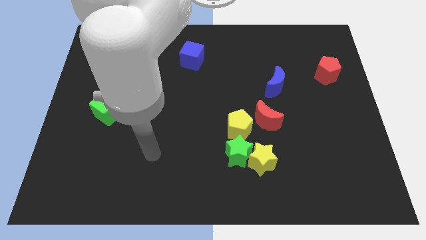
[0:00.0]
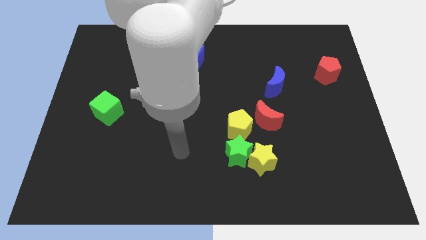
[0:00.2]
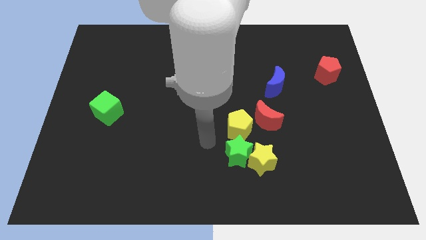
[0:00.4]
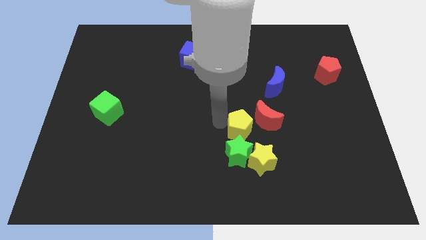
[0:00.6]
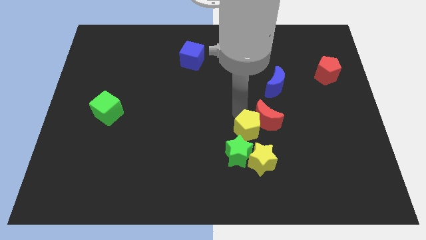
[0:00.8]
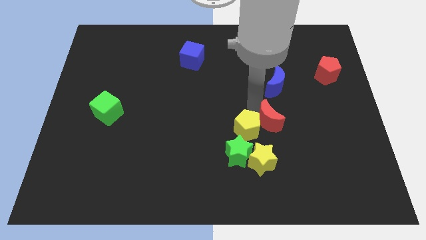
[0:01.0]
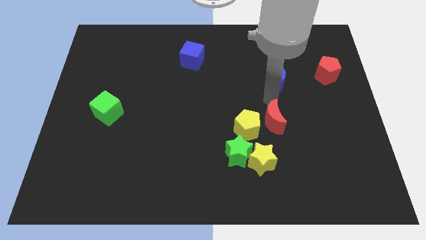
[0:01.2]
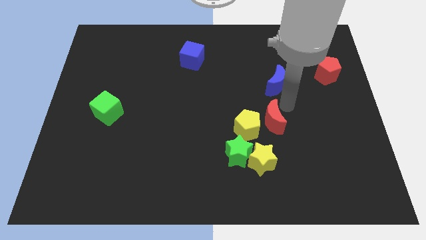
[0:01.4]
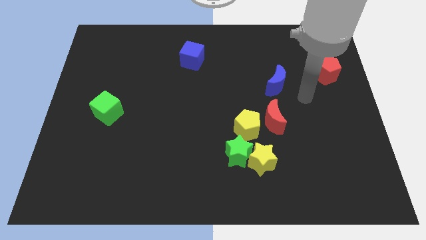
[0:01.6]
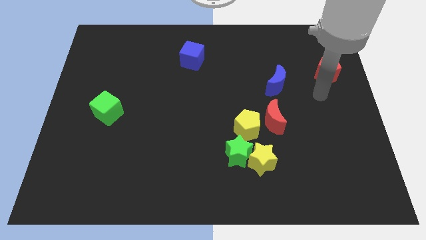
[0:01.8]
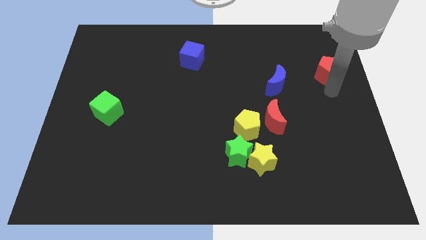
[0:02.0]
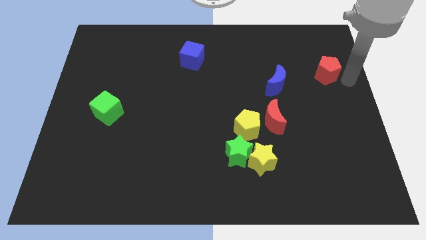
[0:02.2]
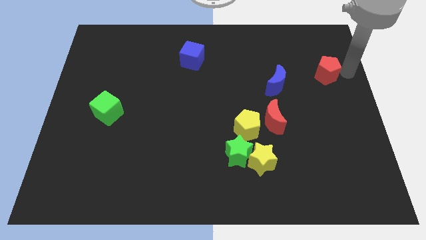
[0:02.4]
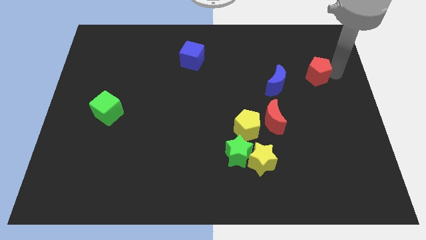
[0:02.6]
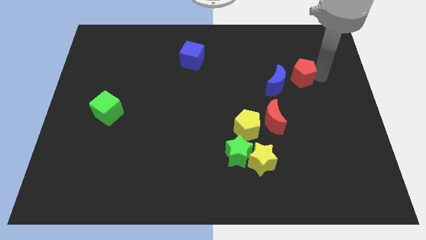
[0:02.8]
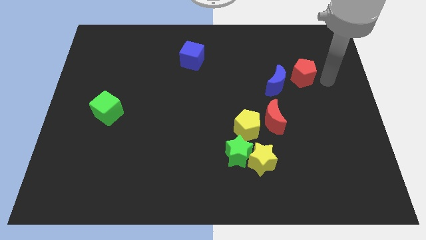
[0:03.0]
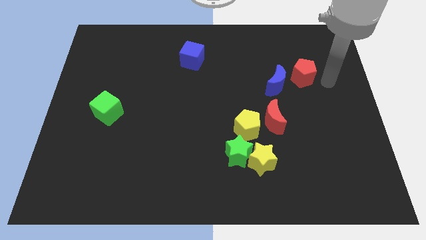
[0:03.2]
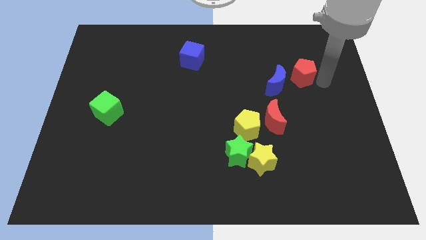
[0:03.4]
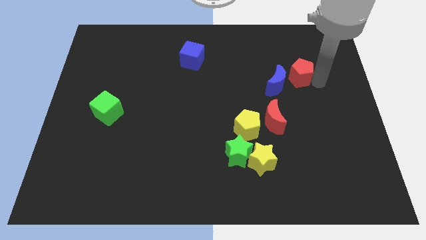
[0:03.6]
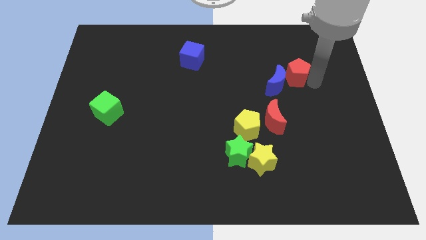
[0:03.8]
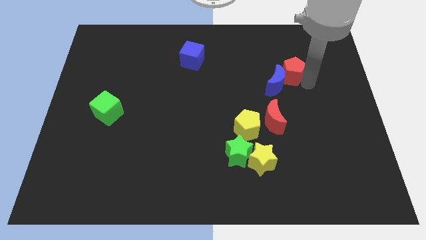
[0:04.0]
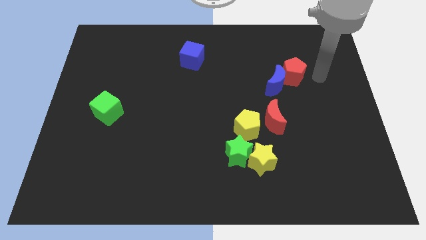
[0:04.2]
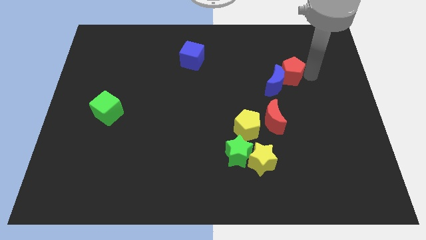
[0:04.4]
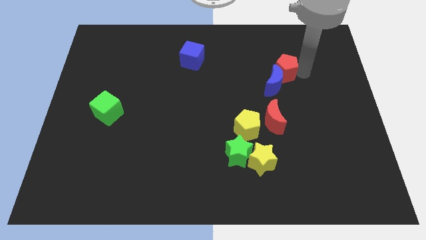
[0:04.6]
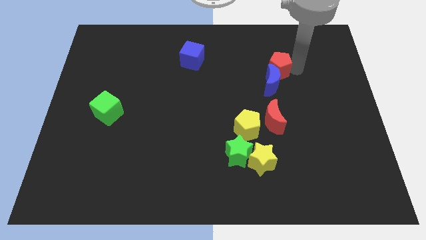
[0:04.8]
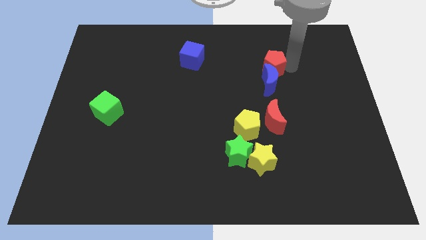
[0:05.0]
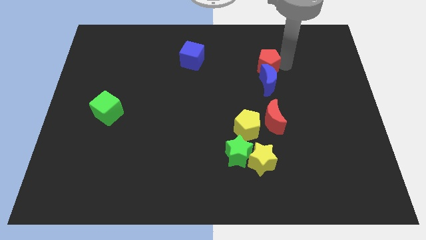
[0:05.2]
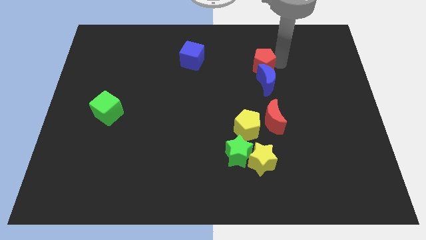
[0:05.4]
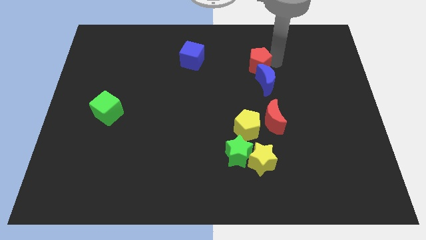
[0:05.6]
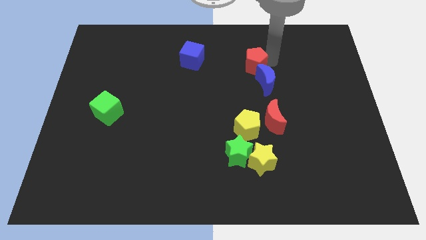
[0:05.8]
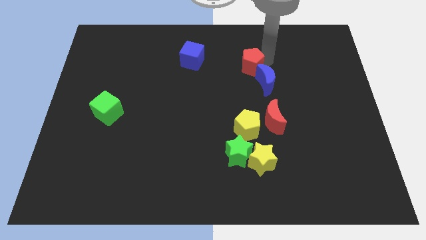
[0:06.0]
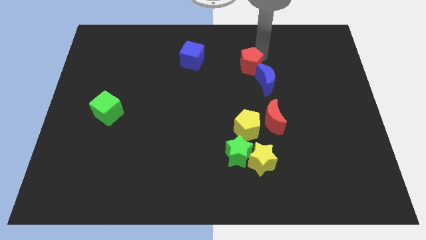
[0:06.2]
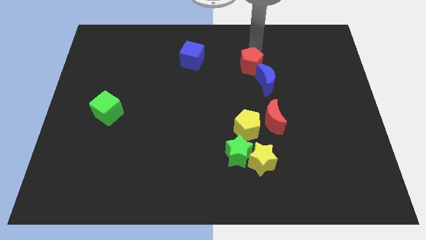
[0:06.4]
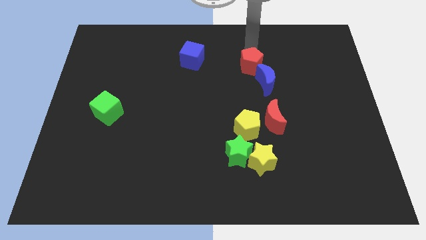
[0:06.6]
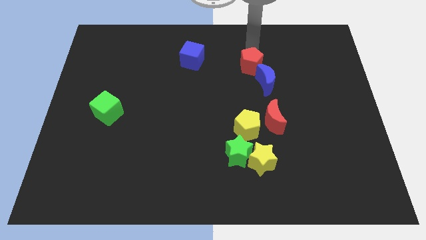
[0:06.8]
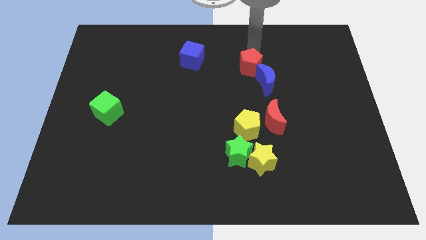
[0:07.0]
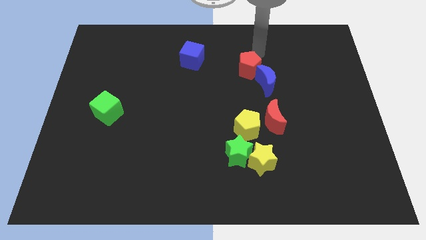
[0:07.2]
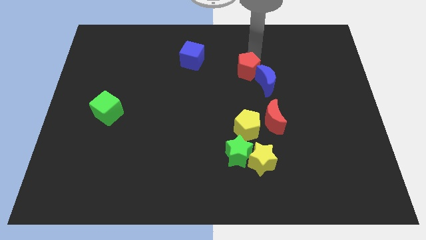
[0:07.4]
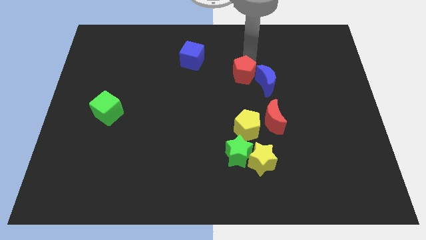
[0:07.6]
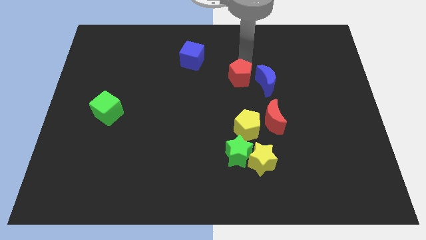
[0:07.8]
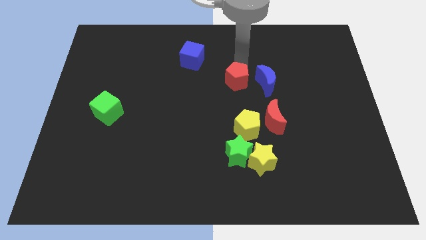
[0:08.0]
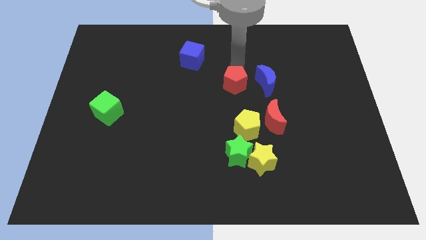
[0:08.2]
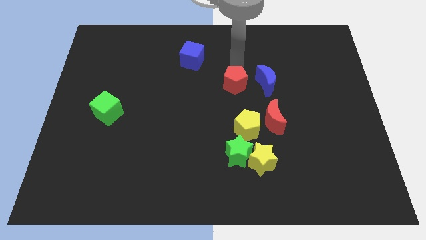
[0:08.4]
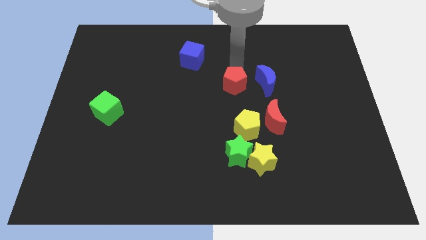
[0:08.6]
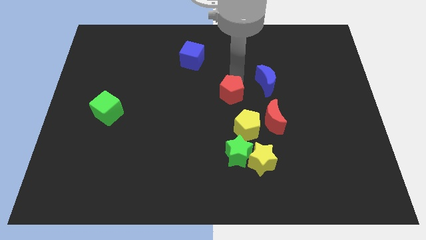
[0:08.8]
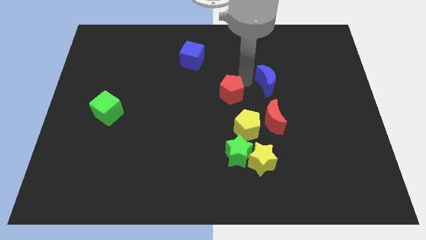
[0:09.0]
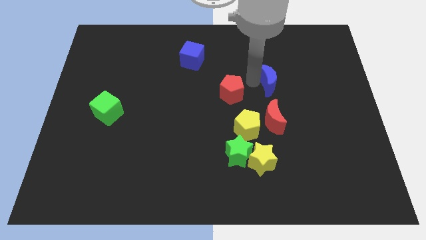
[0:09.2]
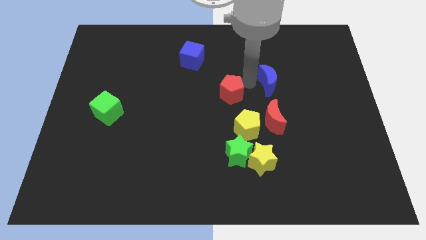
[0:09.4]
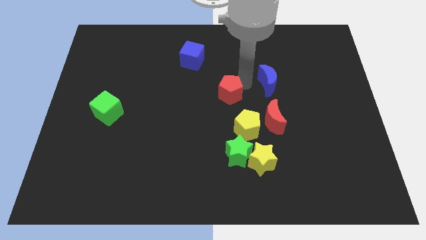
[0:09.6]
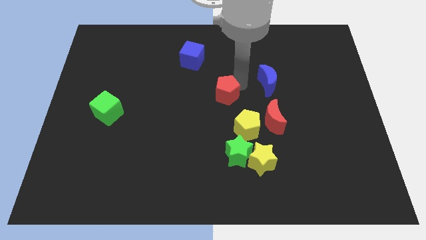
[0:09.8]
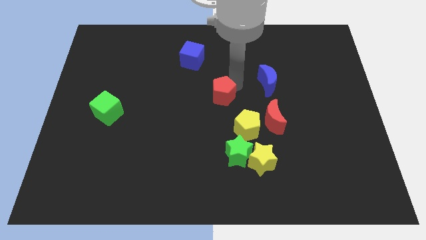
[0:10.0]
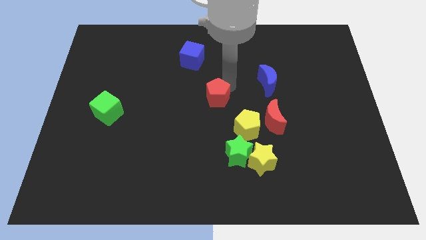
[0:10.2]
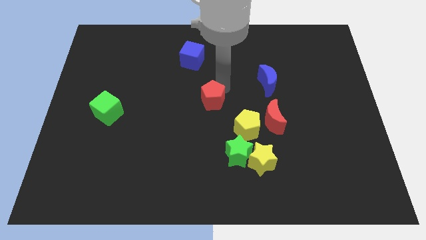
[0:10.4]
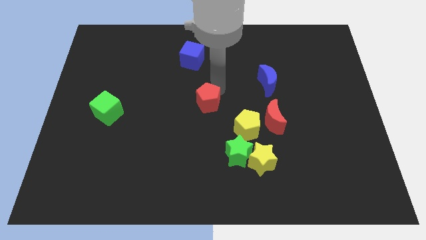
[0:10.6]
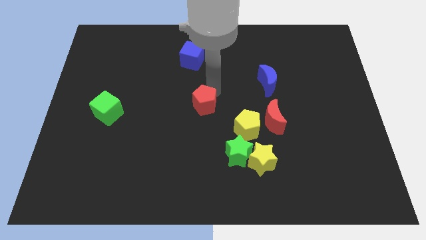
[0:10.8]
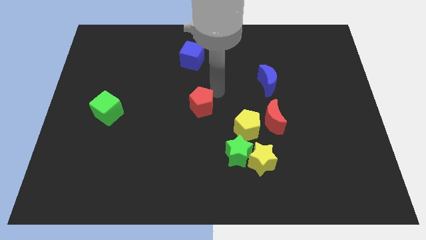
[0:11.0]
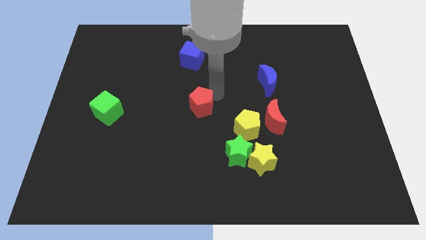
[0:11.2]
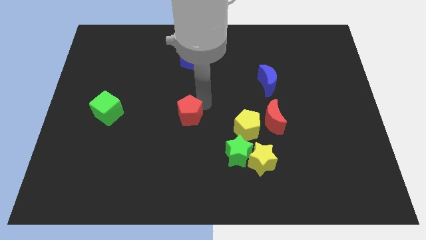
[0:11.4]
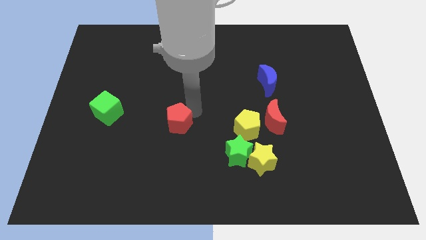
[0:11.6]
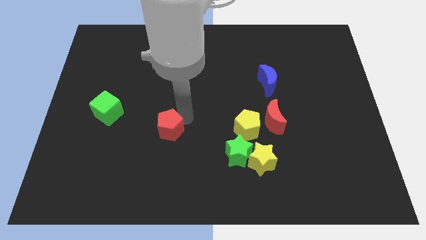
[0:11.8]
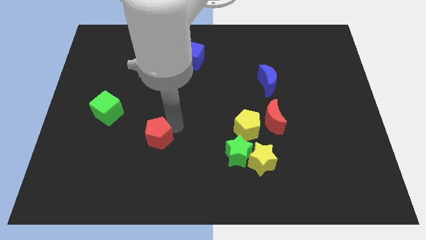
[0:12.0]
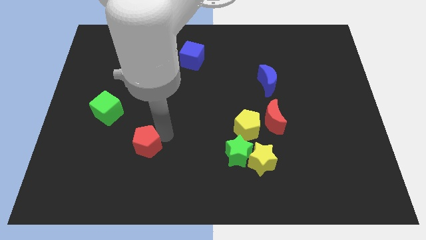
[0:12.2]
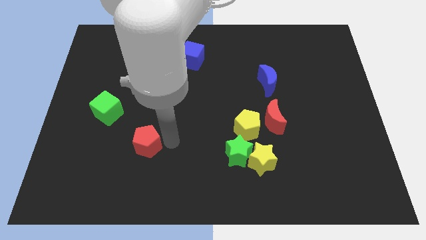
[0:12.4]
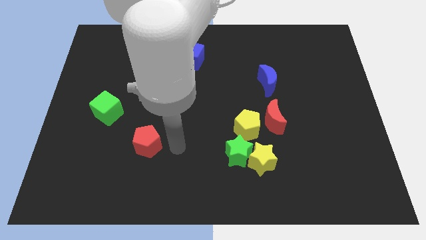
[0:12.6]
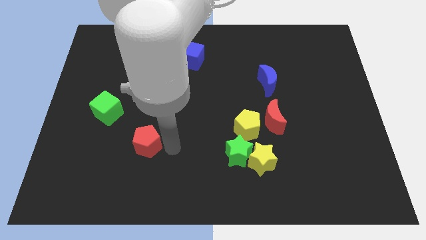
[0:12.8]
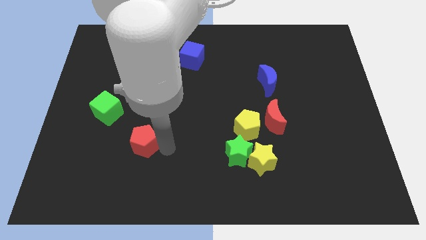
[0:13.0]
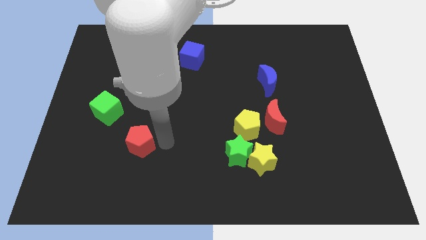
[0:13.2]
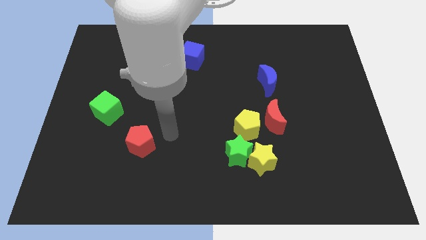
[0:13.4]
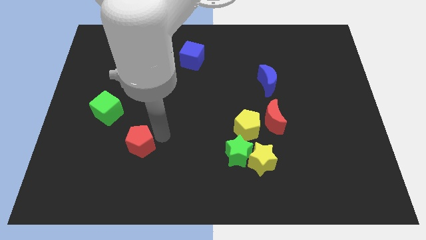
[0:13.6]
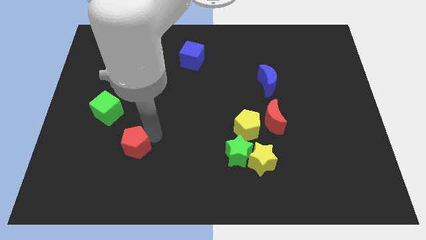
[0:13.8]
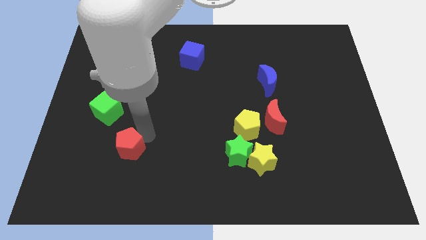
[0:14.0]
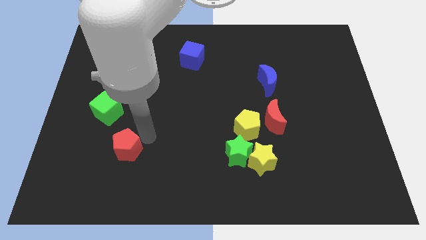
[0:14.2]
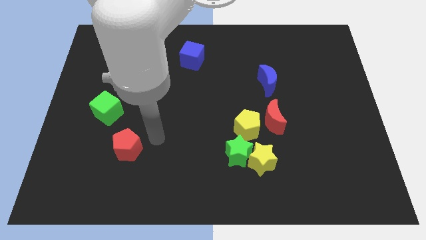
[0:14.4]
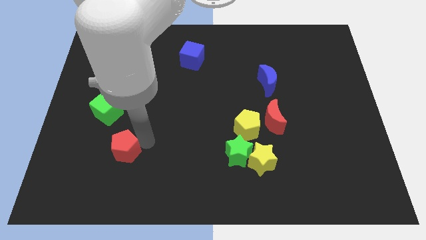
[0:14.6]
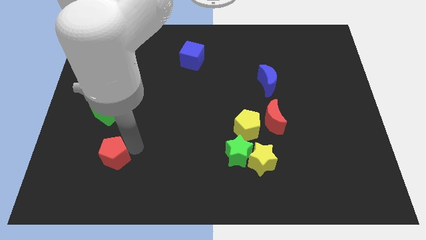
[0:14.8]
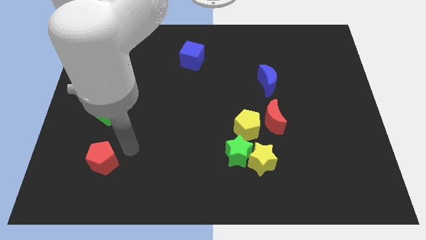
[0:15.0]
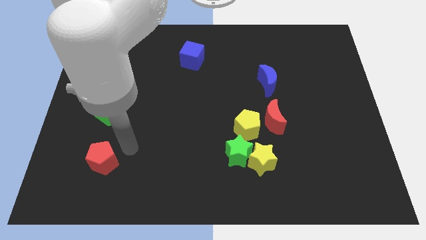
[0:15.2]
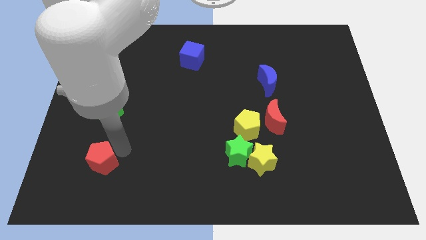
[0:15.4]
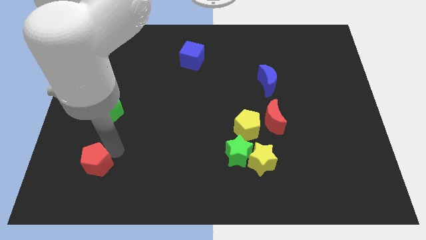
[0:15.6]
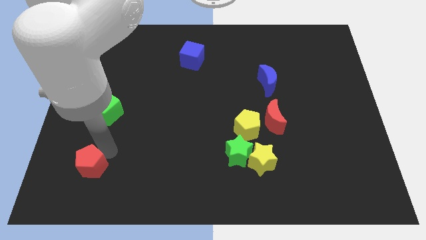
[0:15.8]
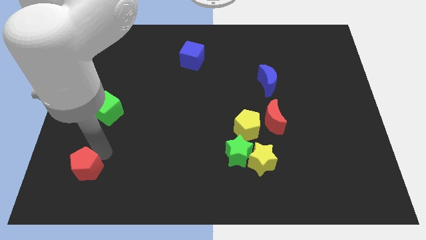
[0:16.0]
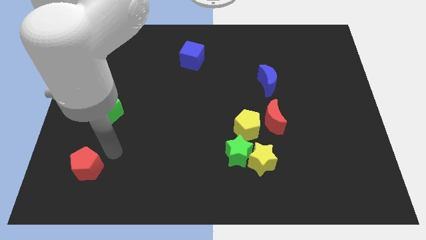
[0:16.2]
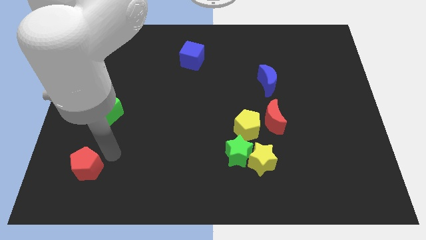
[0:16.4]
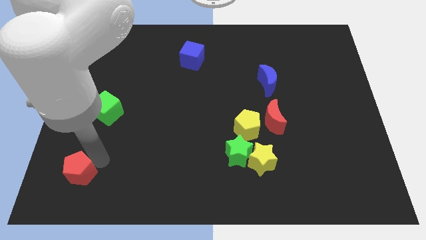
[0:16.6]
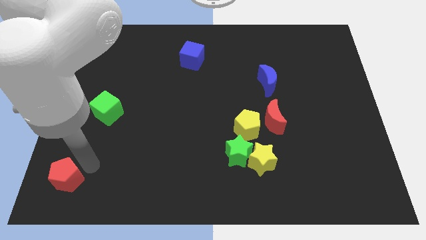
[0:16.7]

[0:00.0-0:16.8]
slide the red pentagon to the lower left corner
